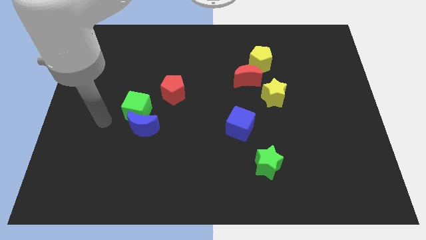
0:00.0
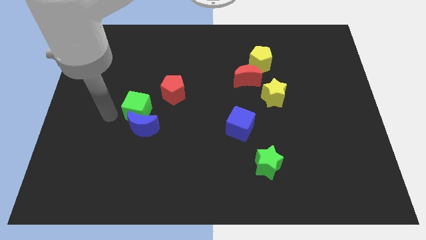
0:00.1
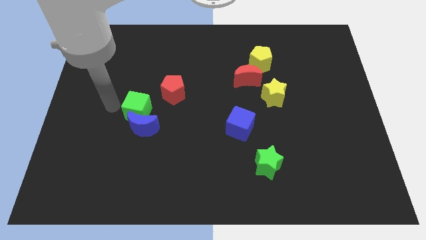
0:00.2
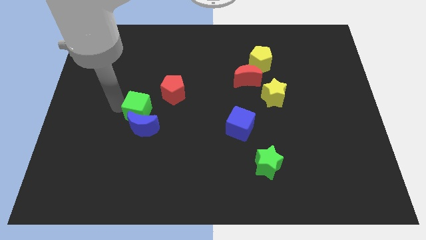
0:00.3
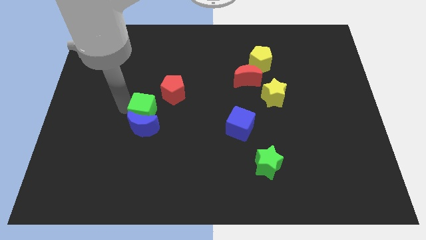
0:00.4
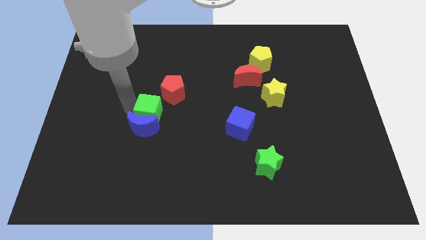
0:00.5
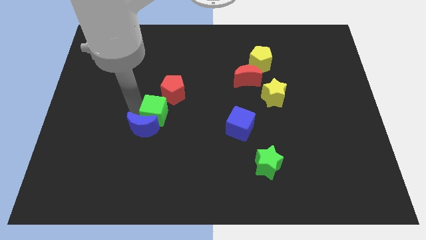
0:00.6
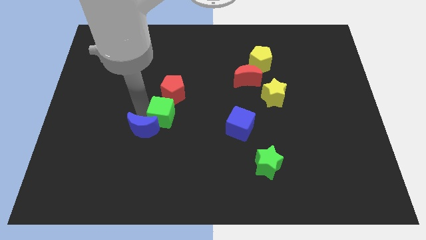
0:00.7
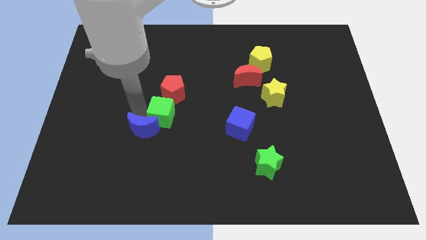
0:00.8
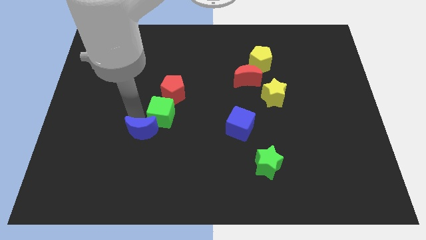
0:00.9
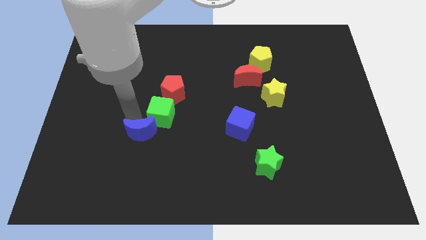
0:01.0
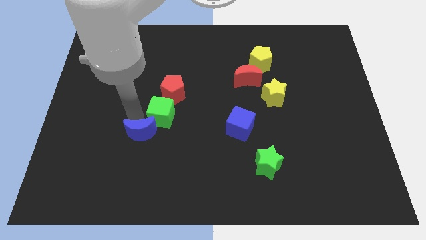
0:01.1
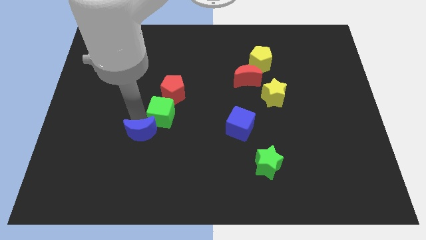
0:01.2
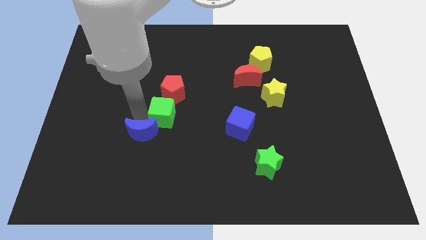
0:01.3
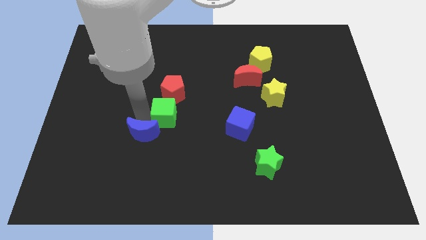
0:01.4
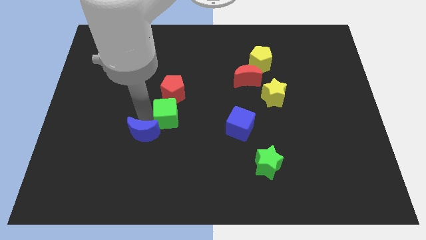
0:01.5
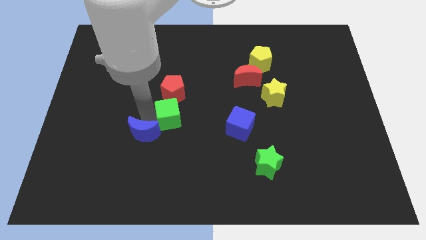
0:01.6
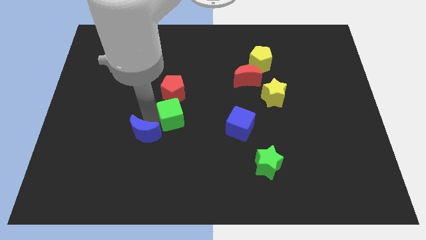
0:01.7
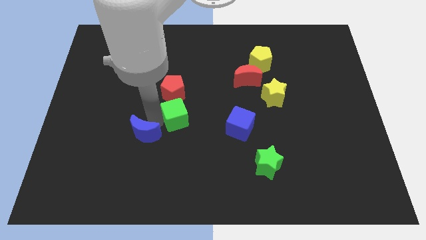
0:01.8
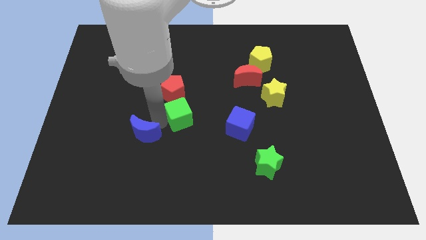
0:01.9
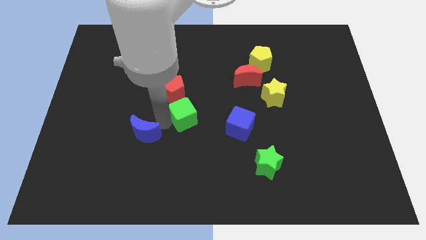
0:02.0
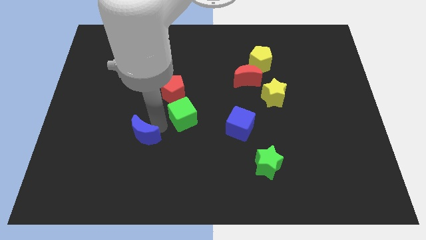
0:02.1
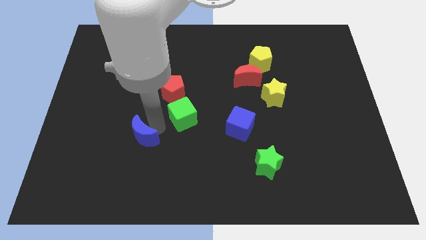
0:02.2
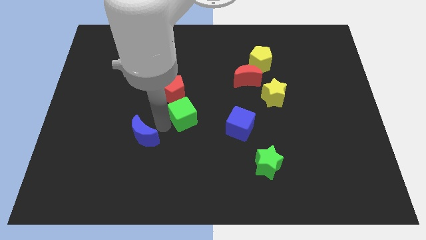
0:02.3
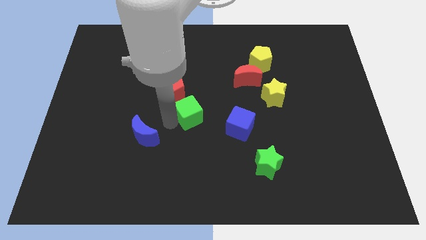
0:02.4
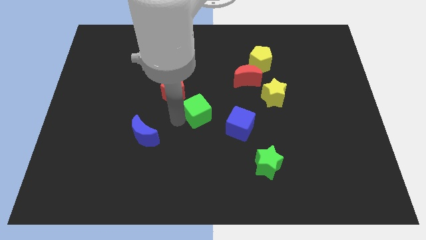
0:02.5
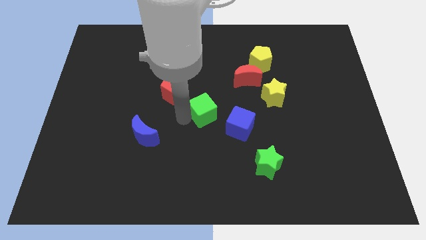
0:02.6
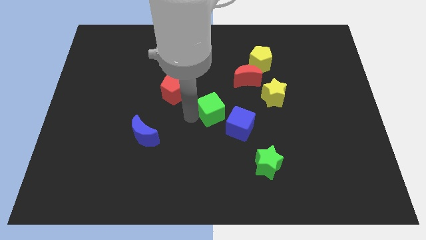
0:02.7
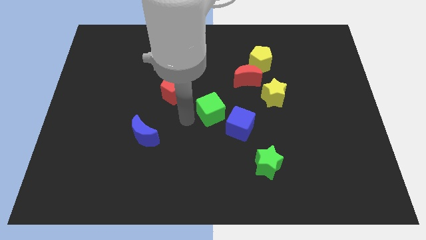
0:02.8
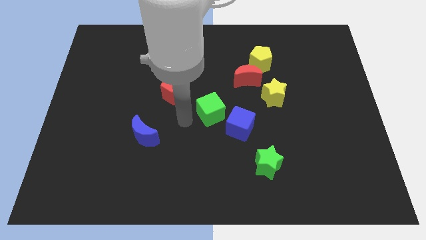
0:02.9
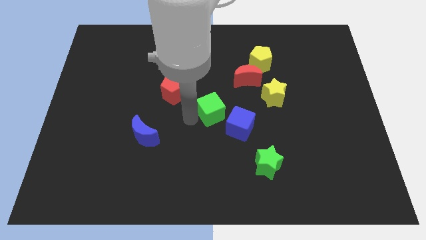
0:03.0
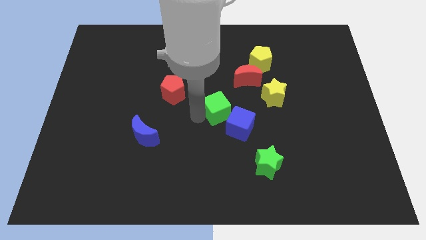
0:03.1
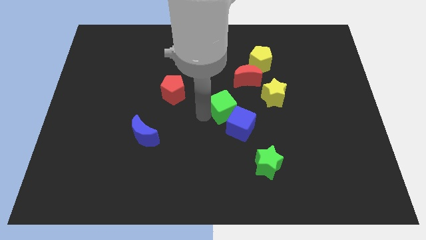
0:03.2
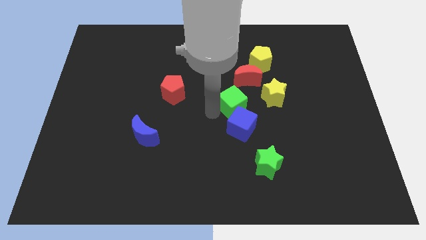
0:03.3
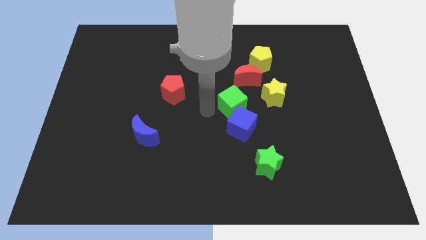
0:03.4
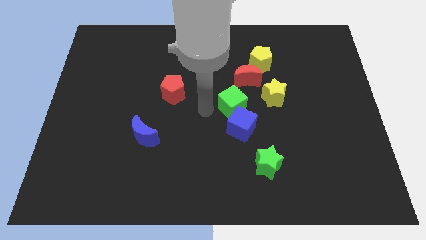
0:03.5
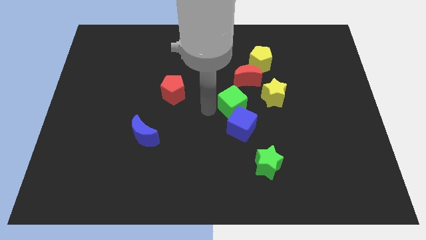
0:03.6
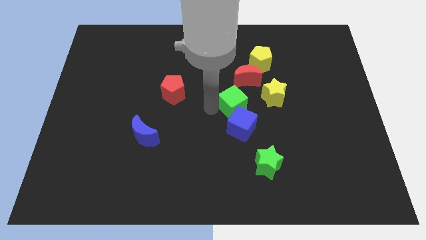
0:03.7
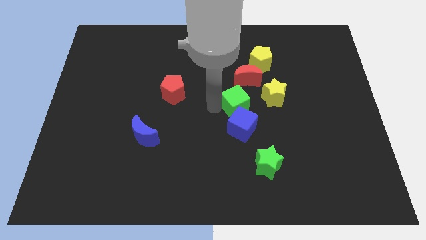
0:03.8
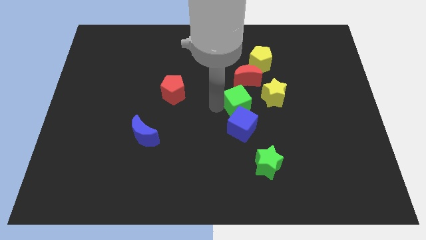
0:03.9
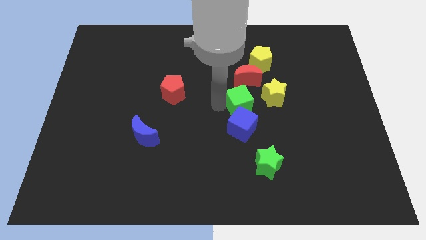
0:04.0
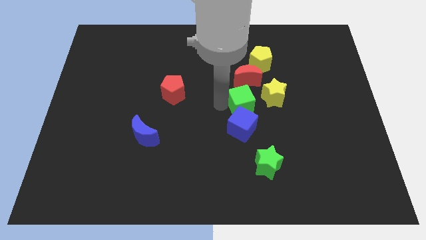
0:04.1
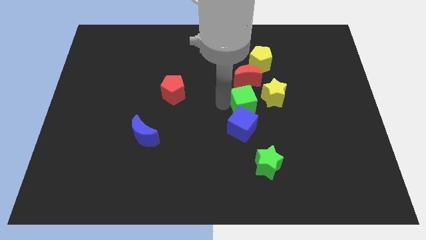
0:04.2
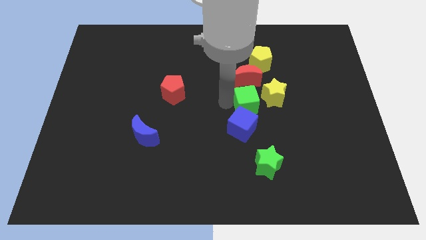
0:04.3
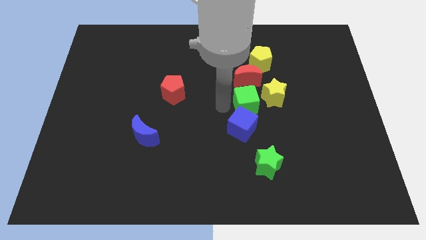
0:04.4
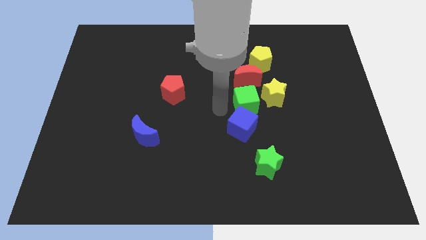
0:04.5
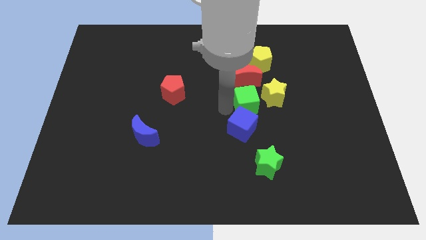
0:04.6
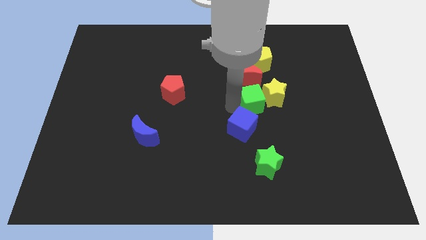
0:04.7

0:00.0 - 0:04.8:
push the green cube close to the yellow star

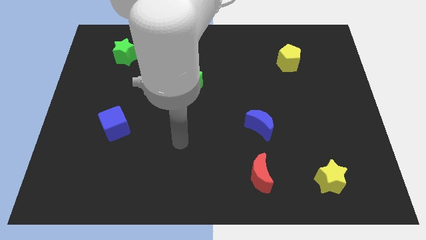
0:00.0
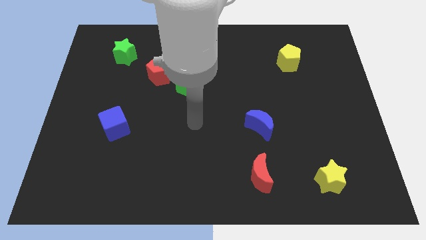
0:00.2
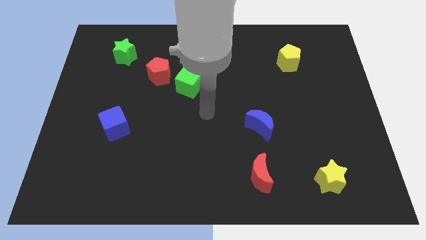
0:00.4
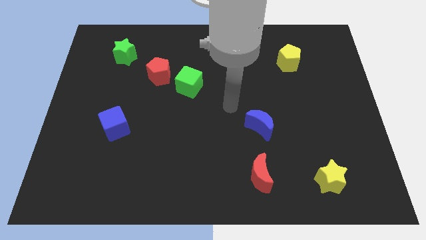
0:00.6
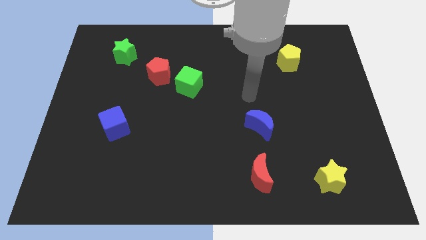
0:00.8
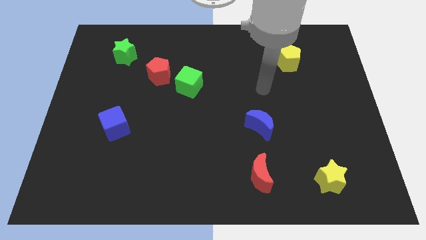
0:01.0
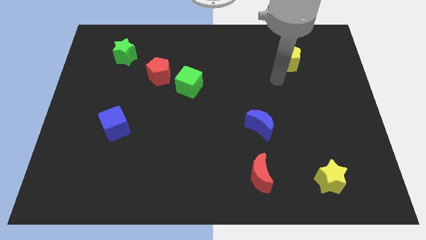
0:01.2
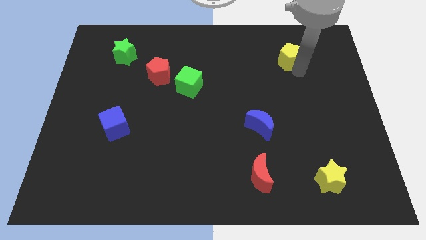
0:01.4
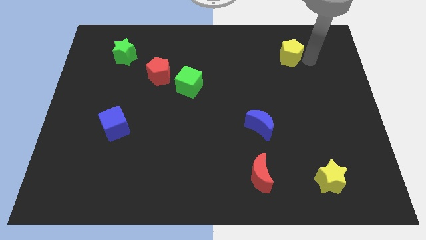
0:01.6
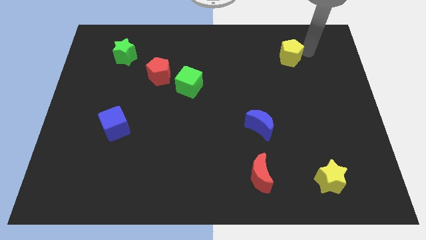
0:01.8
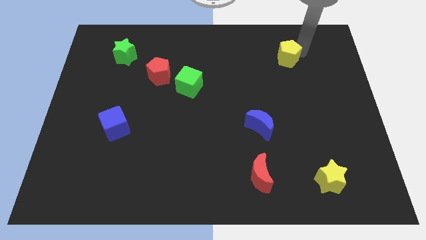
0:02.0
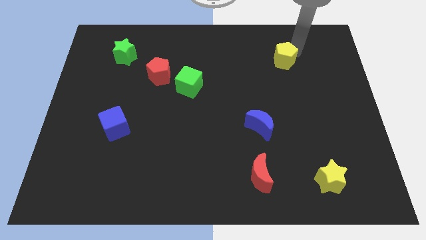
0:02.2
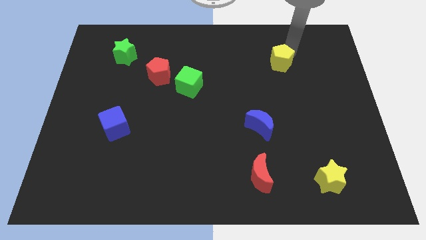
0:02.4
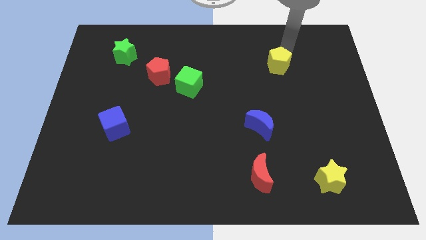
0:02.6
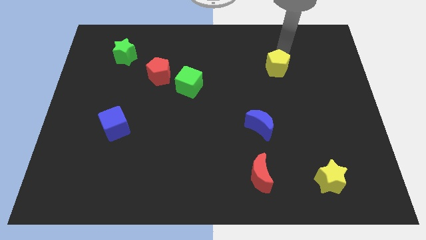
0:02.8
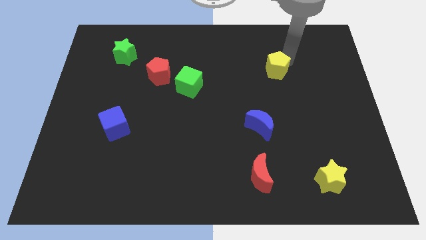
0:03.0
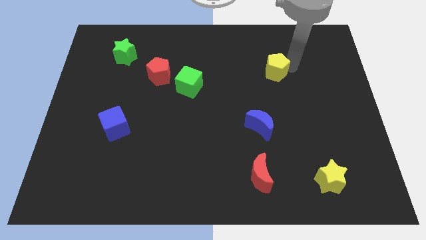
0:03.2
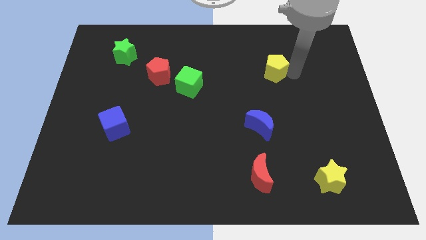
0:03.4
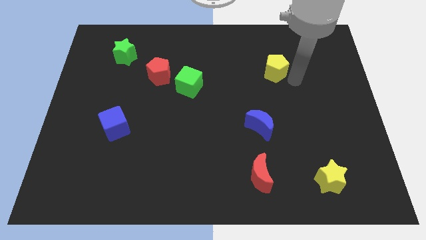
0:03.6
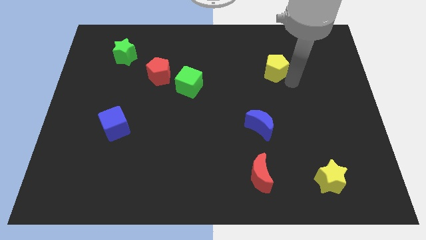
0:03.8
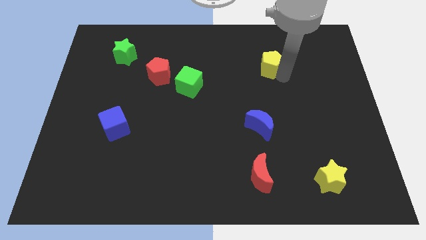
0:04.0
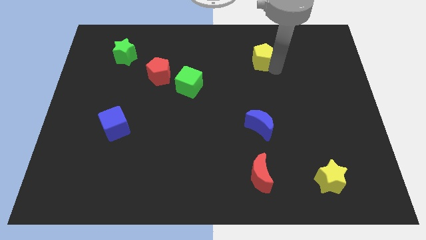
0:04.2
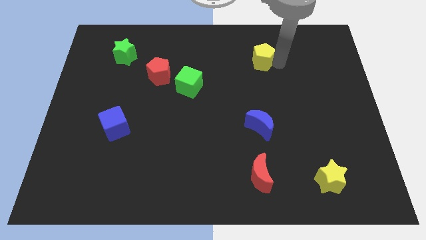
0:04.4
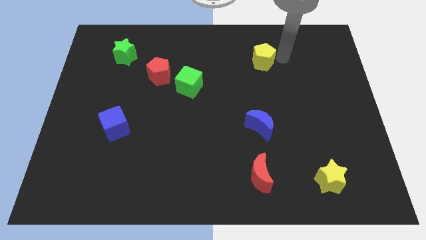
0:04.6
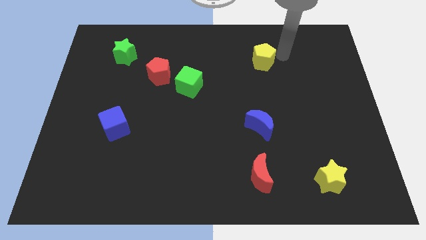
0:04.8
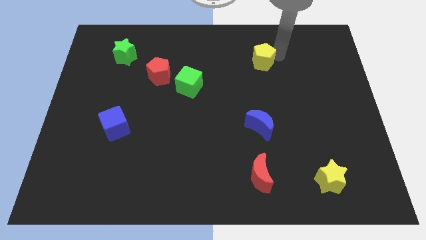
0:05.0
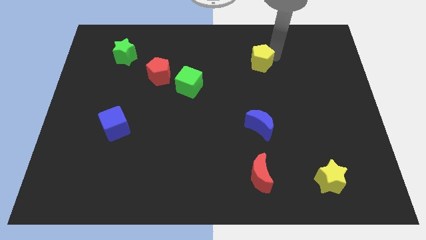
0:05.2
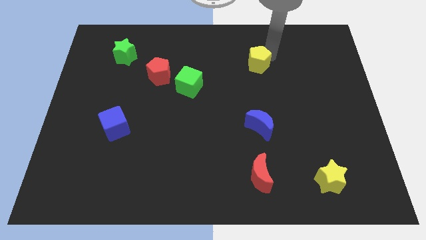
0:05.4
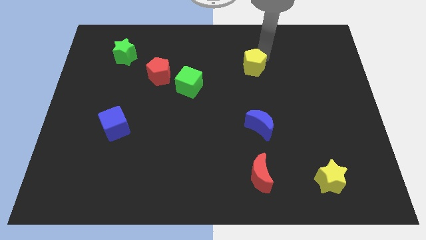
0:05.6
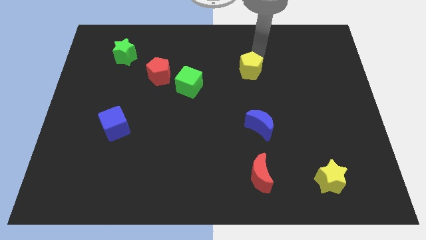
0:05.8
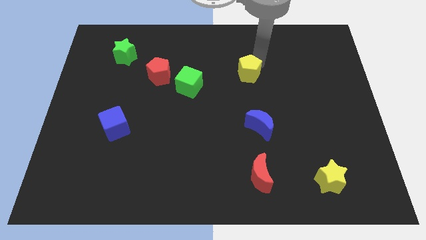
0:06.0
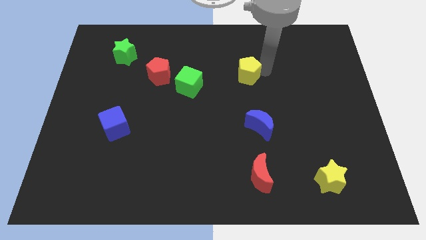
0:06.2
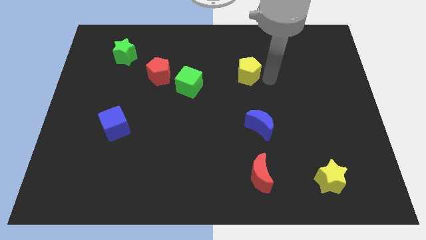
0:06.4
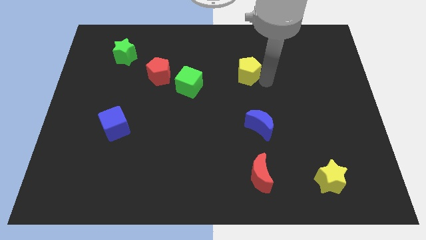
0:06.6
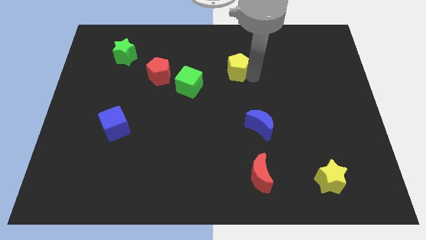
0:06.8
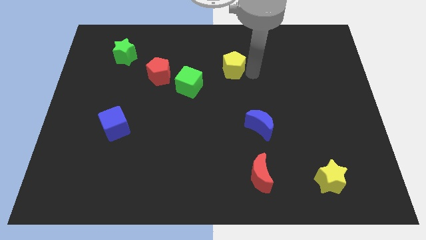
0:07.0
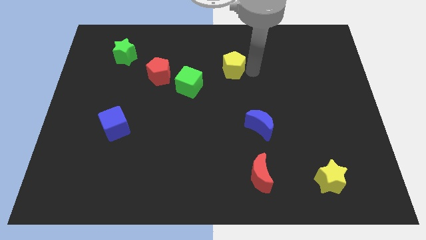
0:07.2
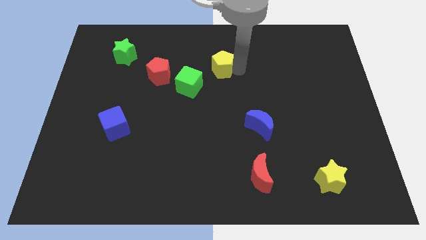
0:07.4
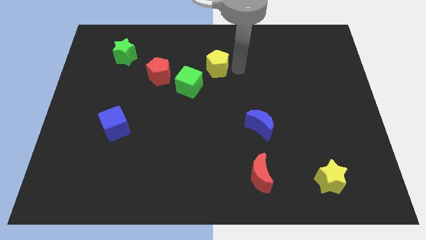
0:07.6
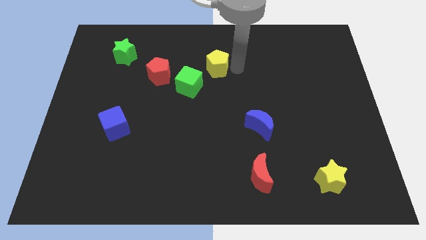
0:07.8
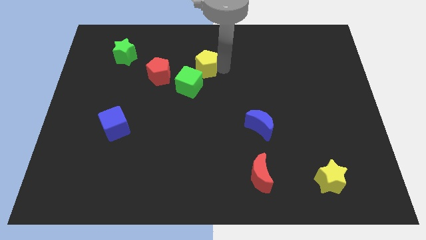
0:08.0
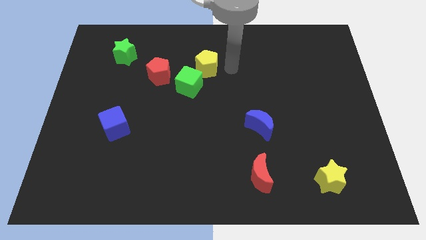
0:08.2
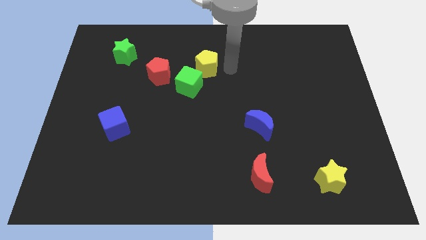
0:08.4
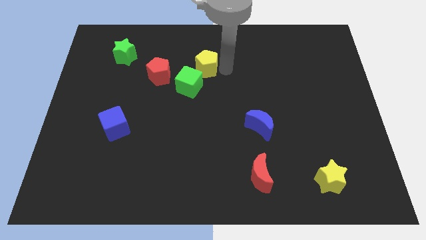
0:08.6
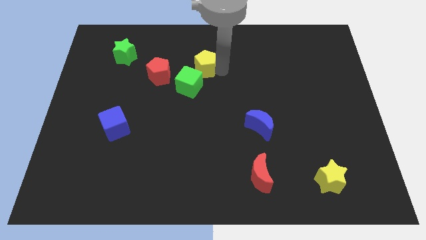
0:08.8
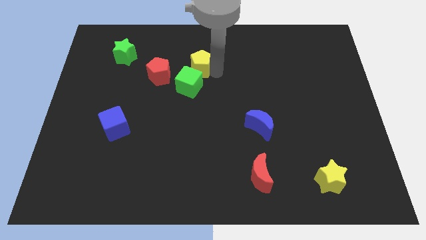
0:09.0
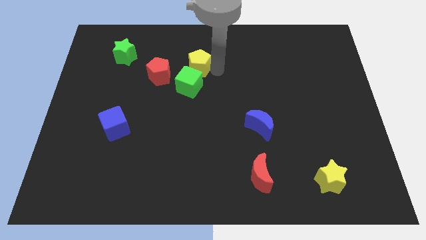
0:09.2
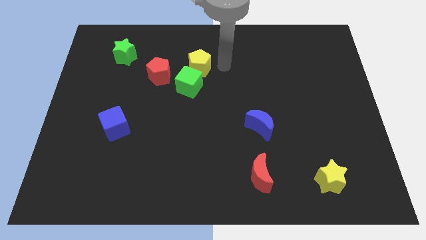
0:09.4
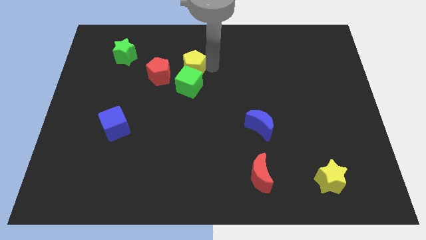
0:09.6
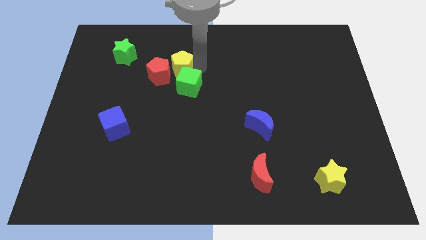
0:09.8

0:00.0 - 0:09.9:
slide the yellow pentagon to the red pentagon
